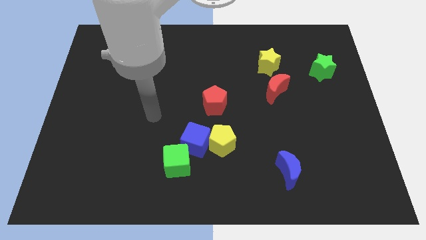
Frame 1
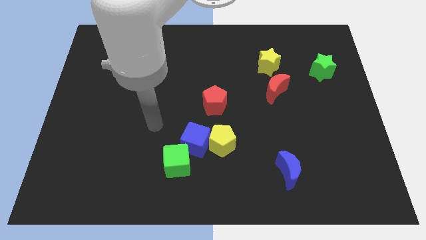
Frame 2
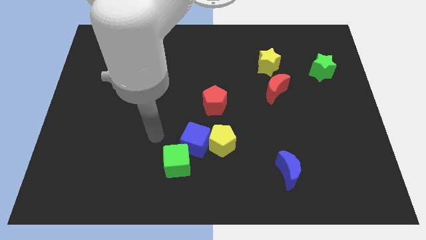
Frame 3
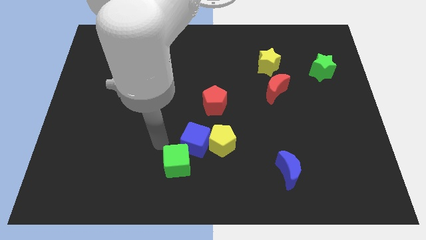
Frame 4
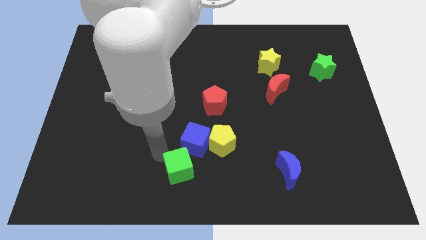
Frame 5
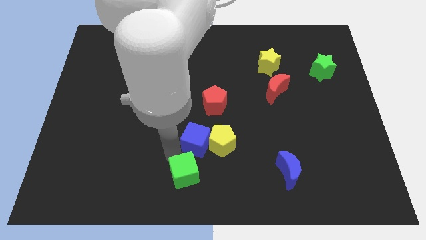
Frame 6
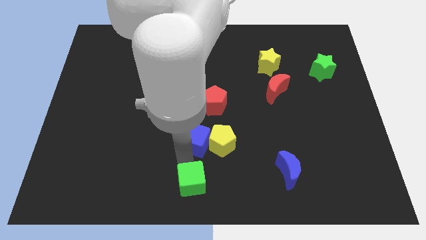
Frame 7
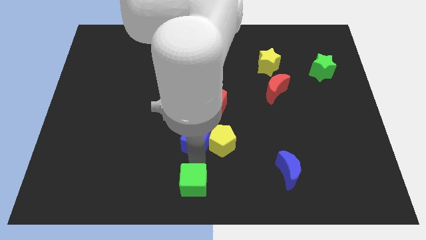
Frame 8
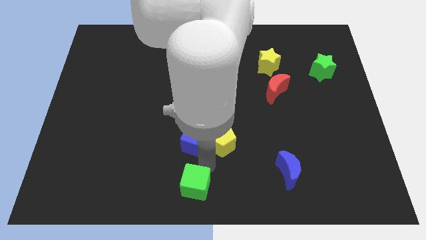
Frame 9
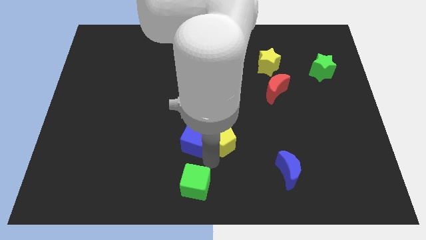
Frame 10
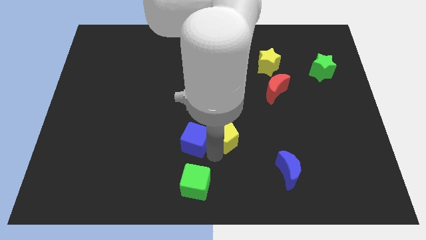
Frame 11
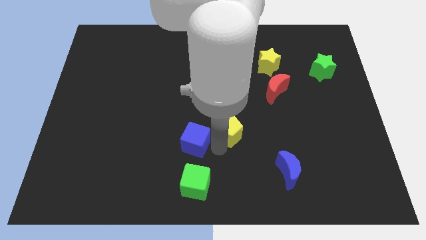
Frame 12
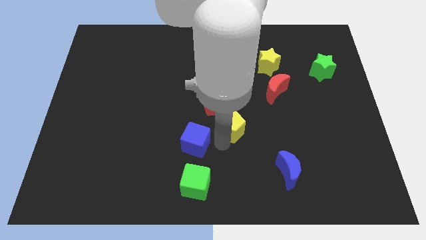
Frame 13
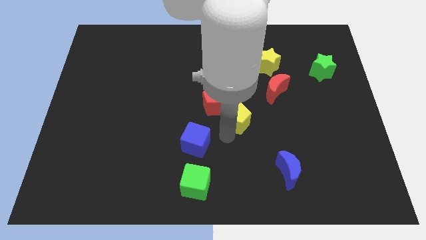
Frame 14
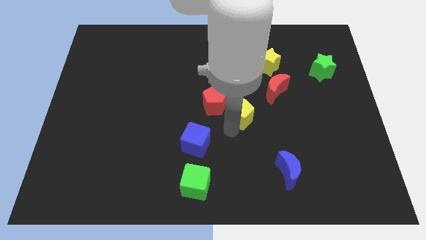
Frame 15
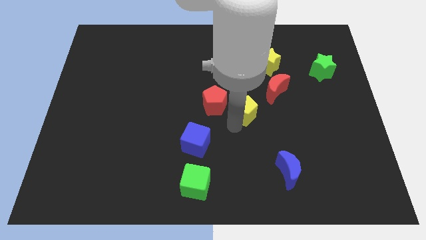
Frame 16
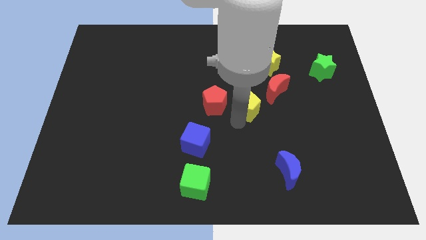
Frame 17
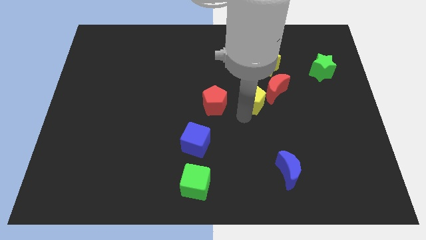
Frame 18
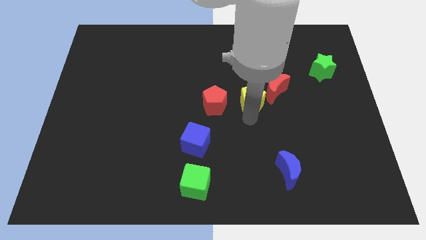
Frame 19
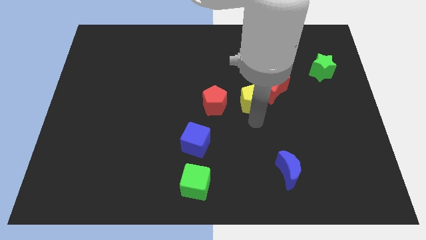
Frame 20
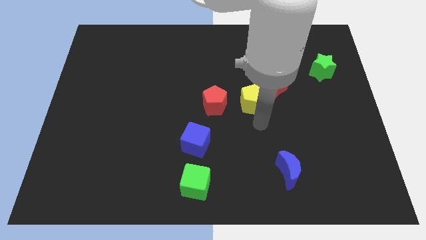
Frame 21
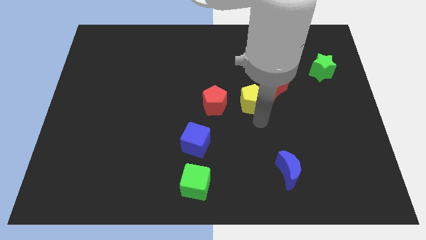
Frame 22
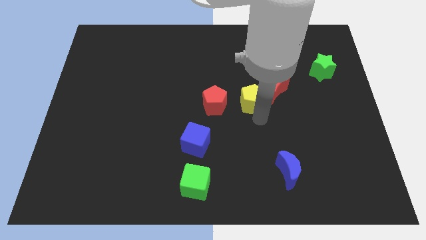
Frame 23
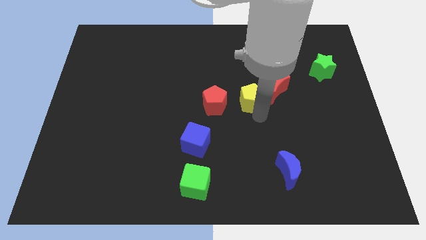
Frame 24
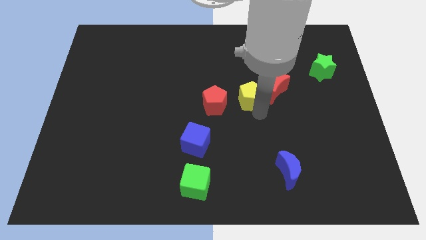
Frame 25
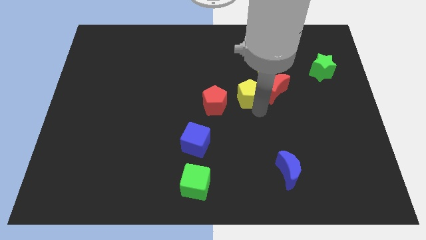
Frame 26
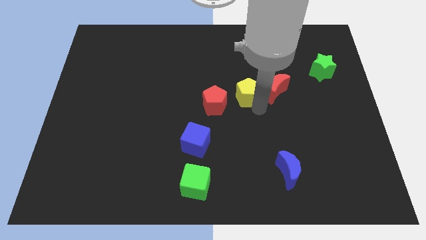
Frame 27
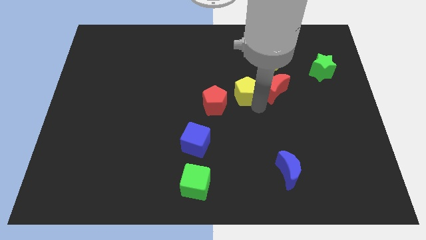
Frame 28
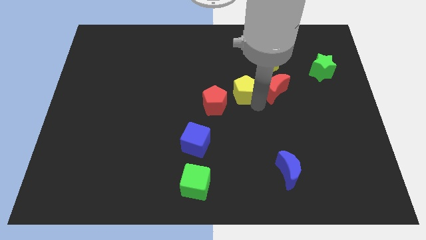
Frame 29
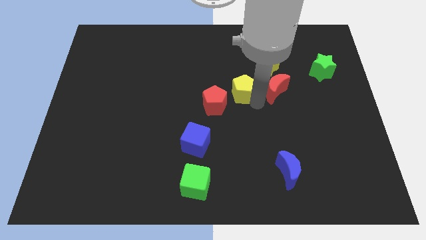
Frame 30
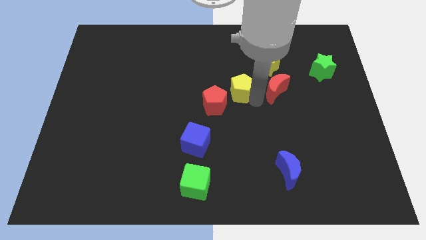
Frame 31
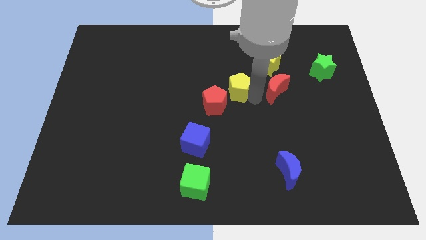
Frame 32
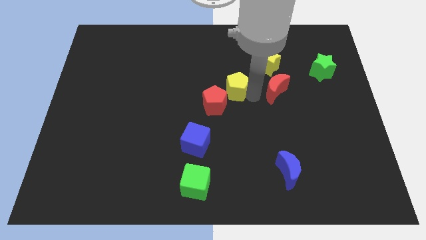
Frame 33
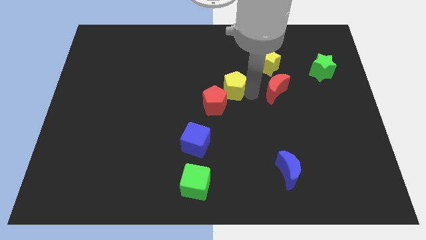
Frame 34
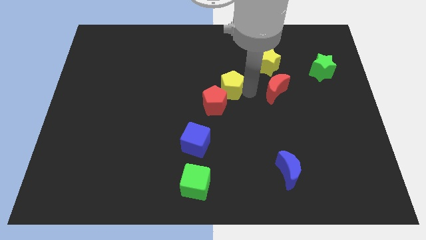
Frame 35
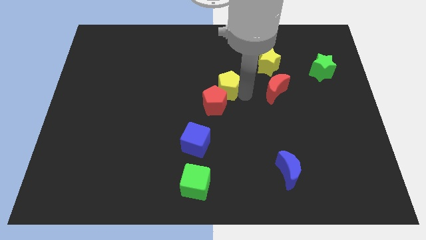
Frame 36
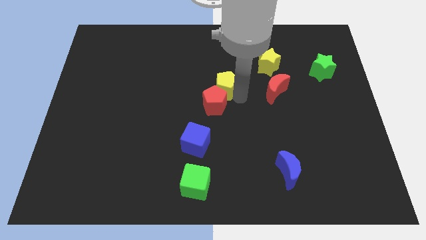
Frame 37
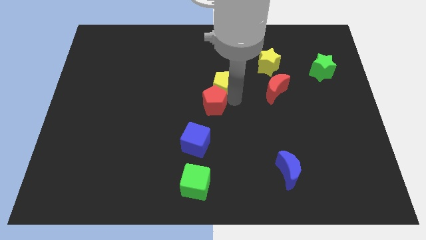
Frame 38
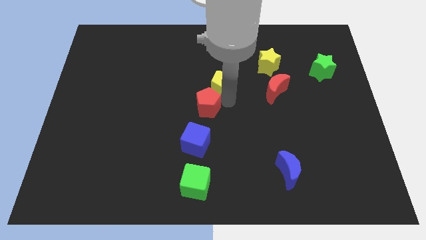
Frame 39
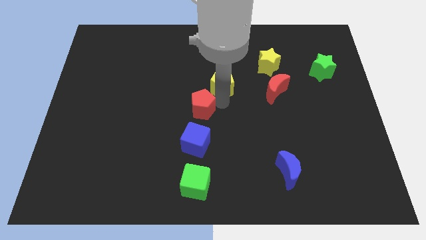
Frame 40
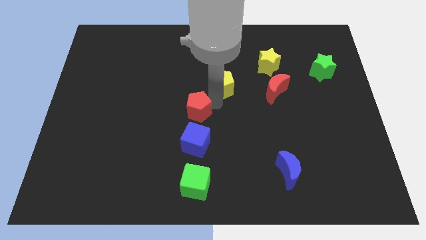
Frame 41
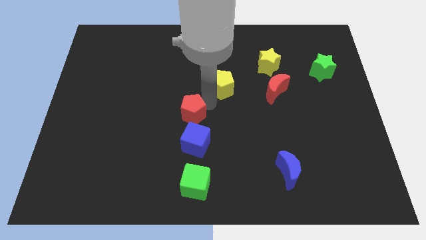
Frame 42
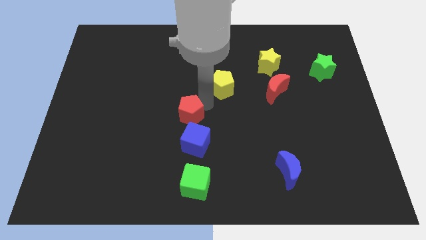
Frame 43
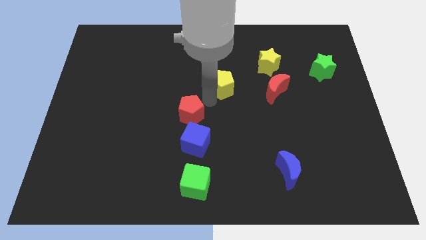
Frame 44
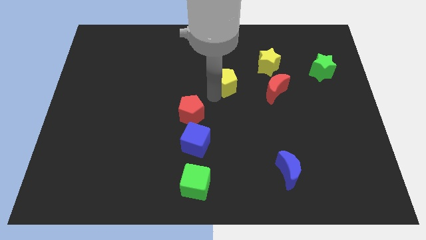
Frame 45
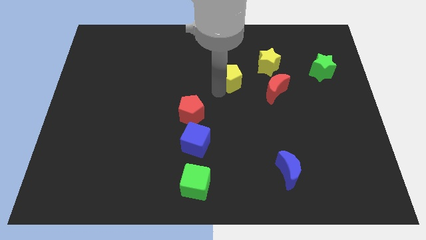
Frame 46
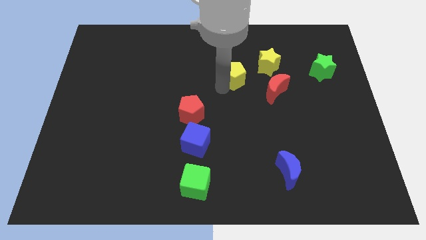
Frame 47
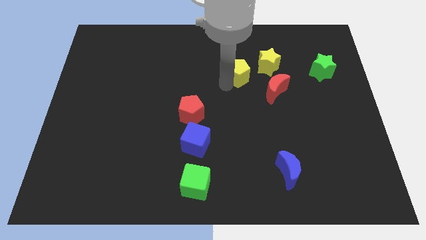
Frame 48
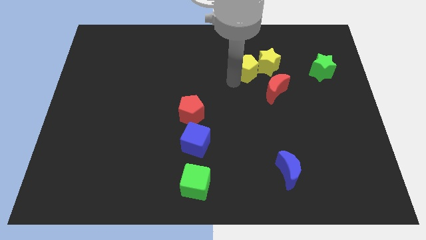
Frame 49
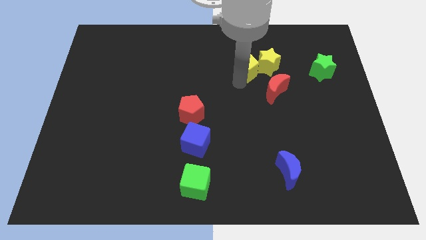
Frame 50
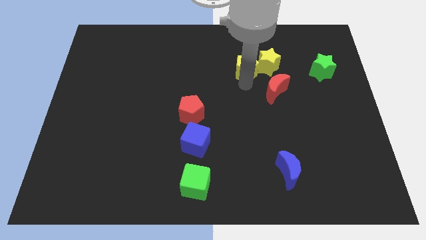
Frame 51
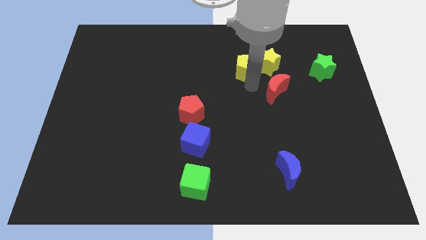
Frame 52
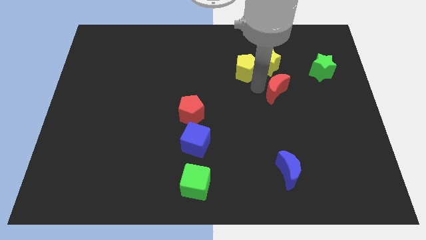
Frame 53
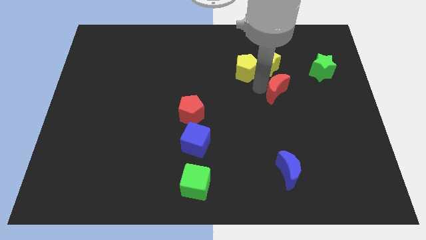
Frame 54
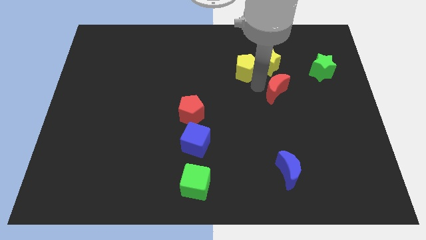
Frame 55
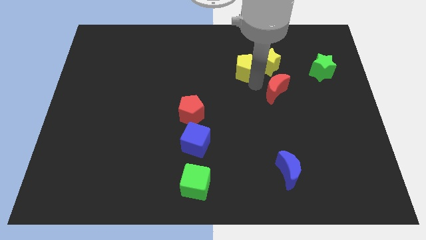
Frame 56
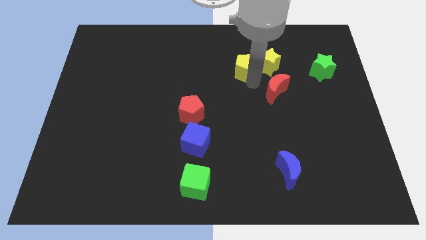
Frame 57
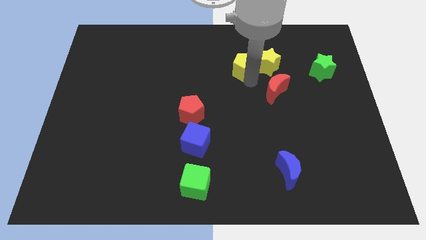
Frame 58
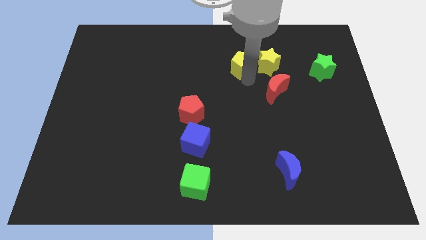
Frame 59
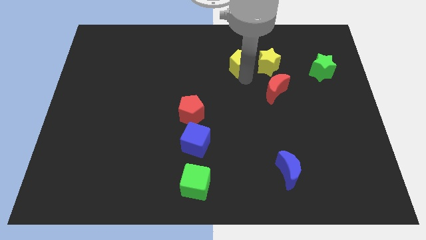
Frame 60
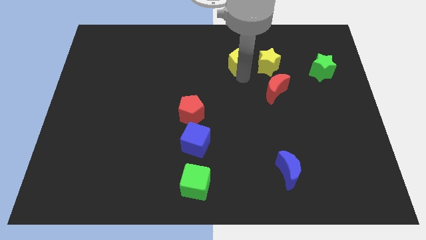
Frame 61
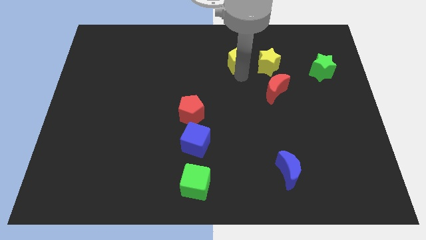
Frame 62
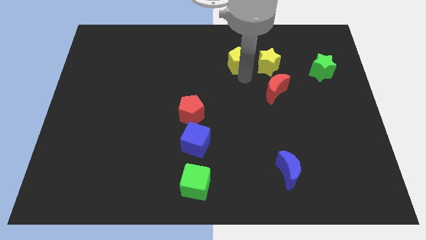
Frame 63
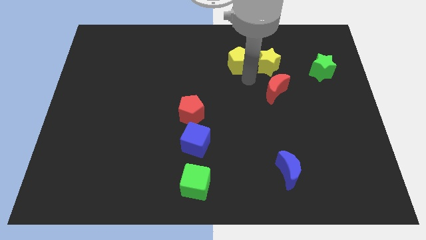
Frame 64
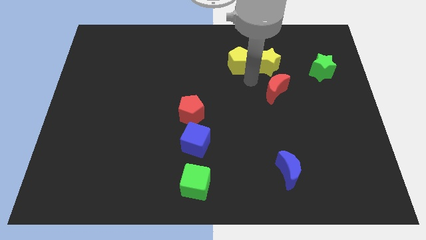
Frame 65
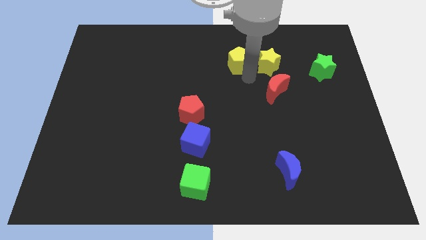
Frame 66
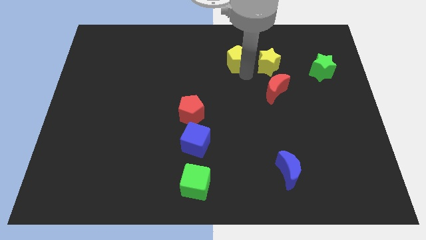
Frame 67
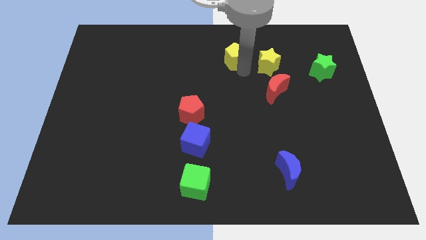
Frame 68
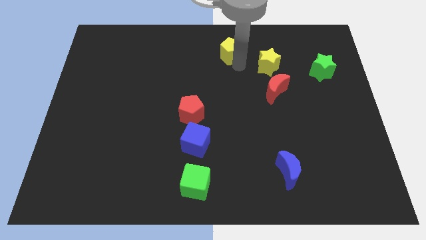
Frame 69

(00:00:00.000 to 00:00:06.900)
move the yellow pentagon to the top
